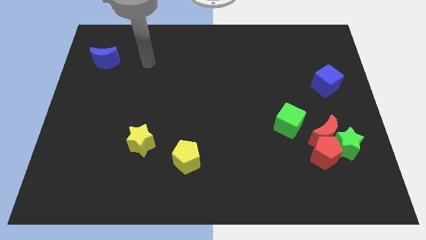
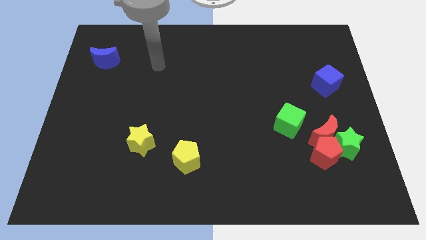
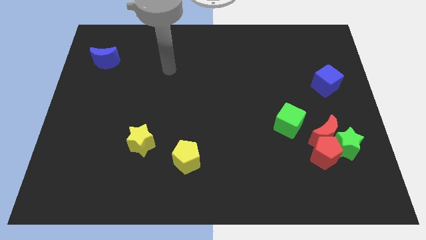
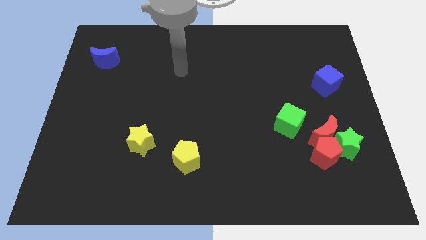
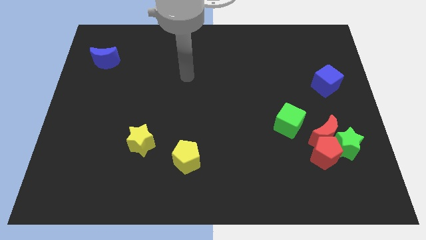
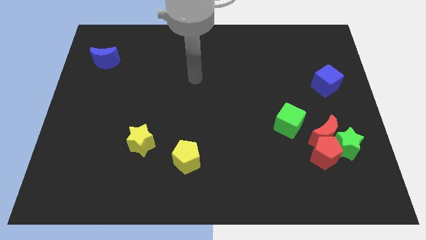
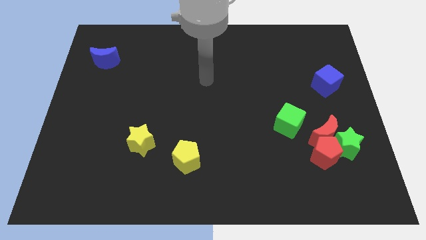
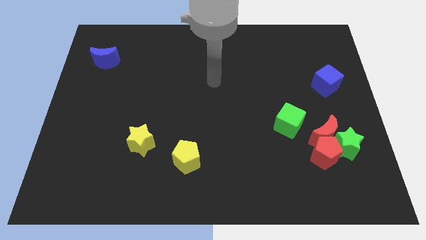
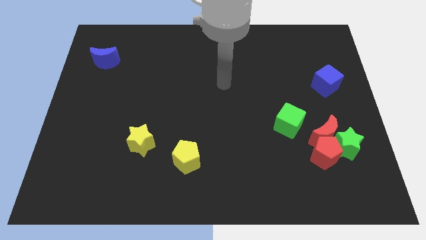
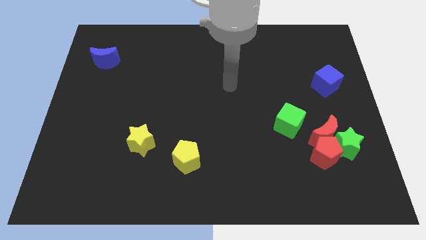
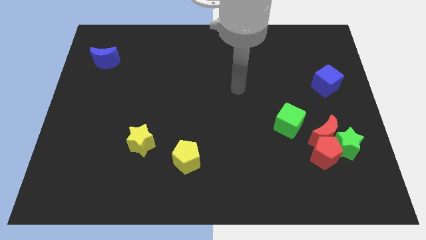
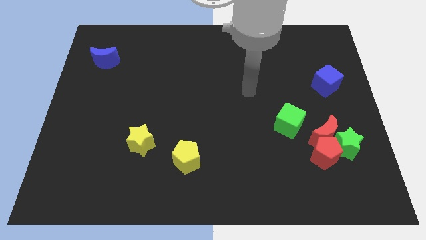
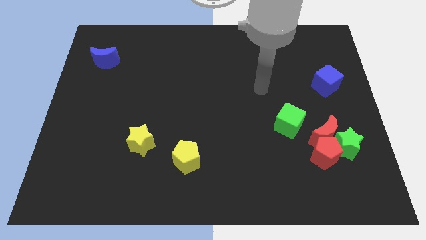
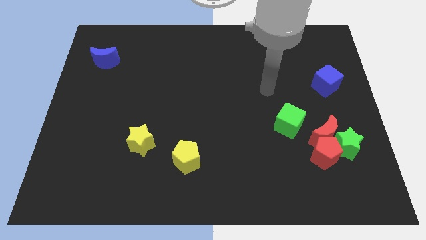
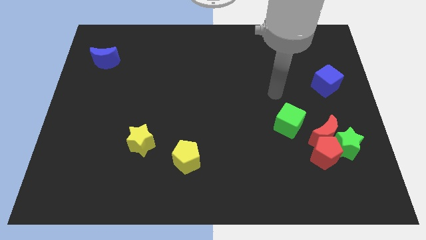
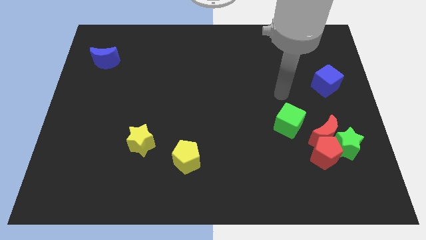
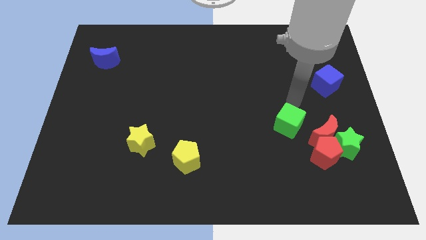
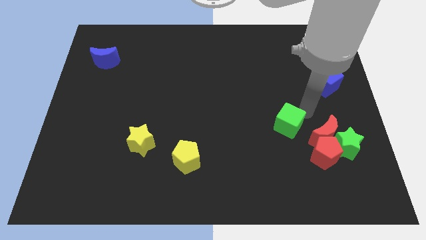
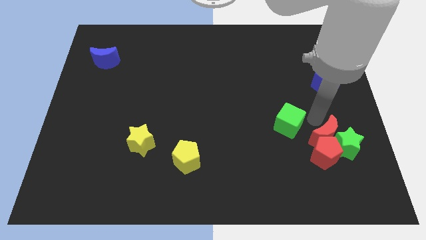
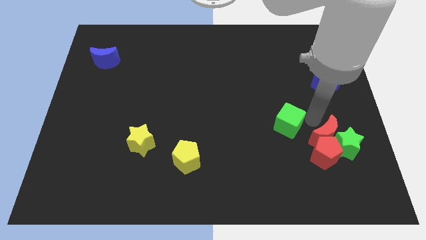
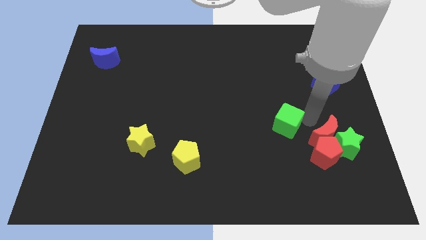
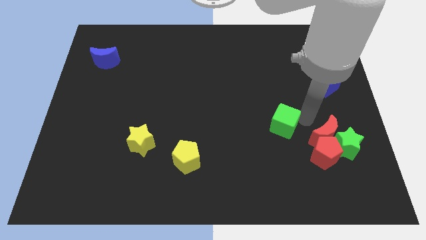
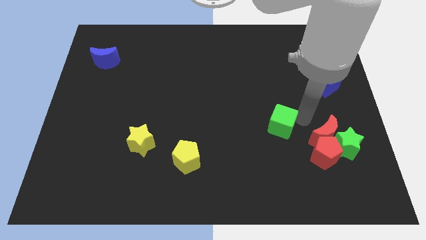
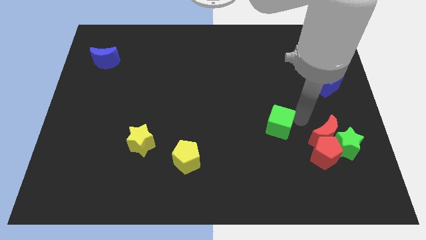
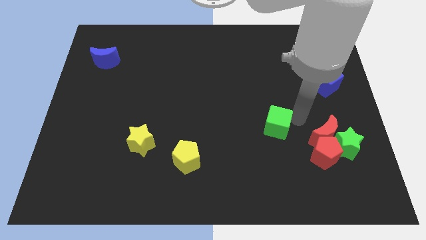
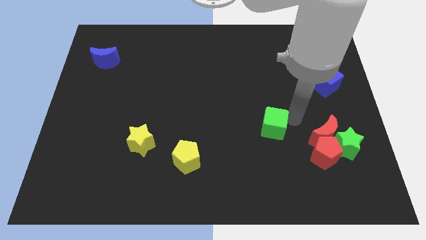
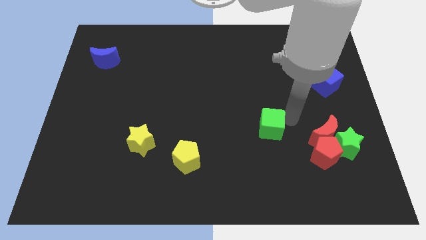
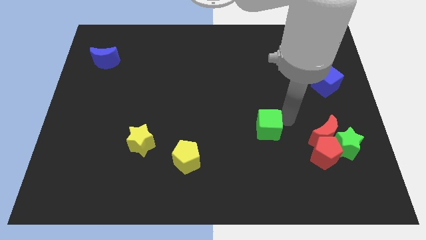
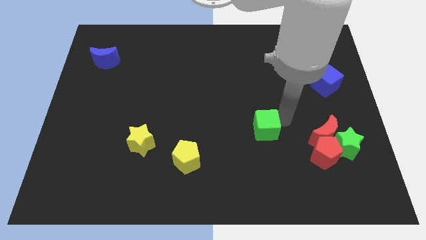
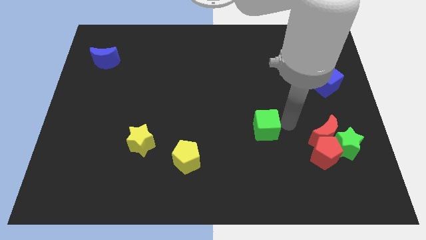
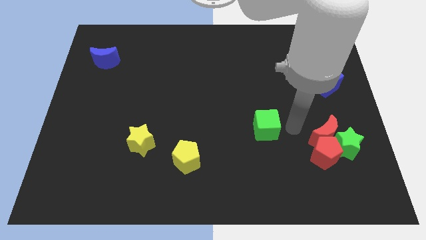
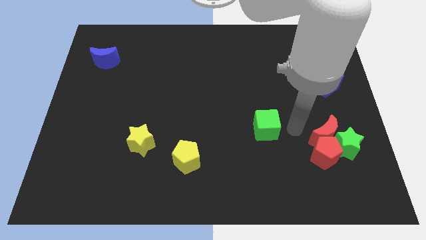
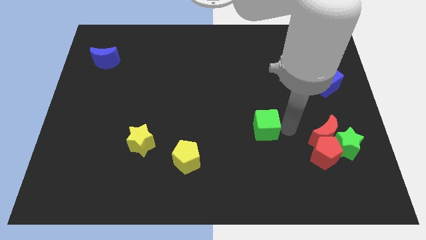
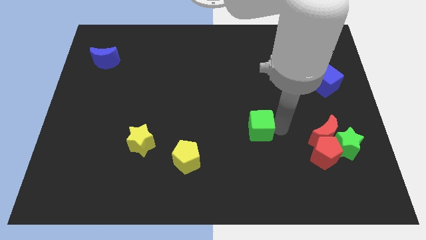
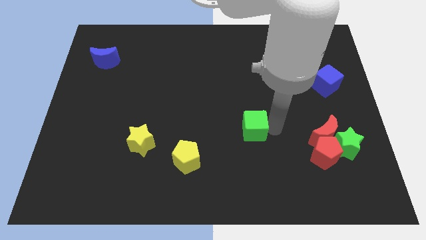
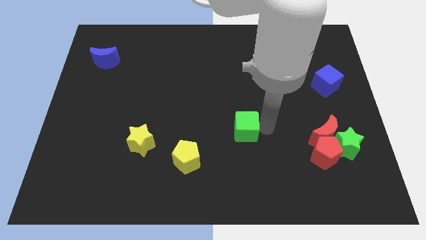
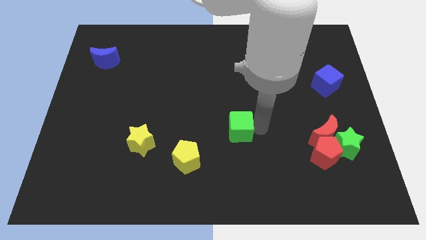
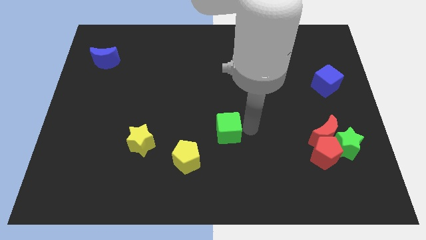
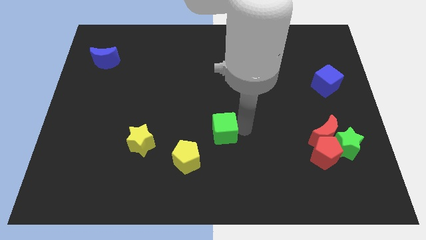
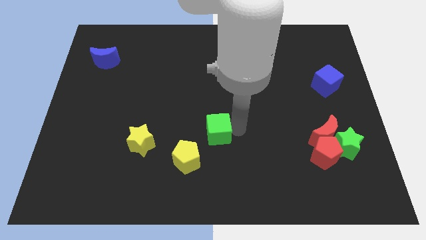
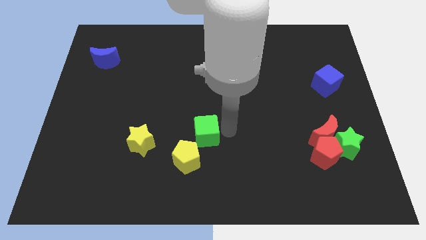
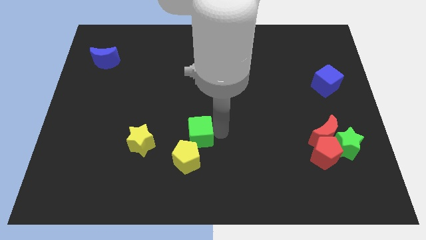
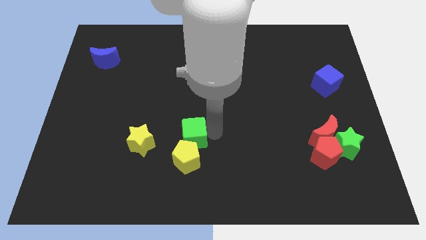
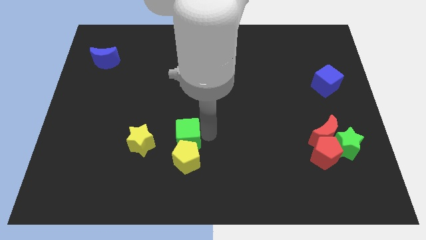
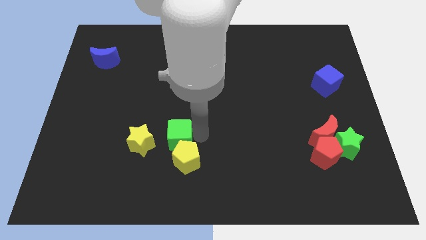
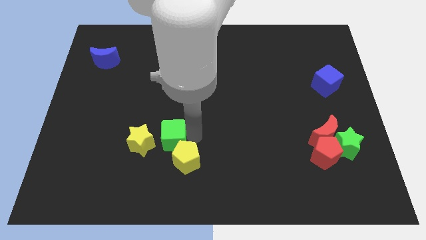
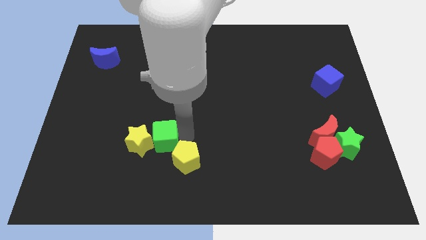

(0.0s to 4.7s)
slide the green cube close to the yellow star

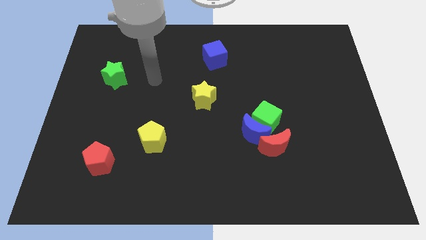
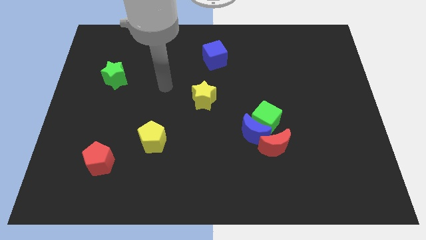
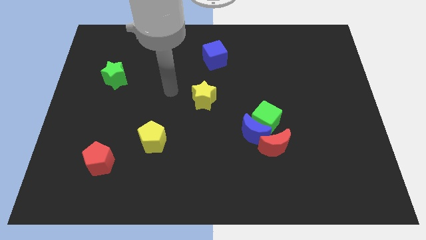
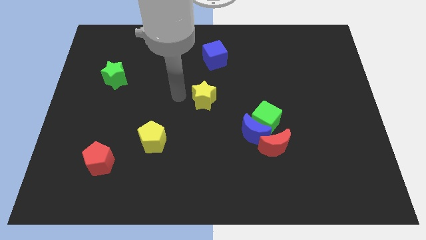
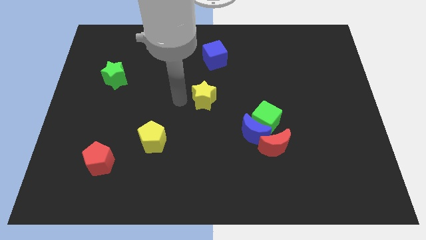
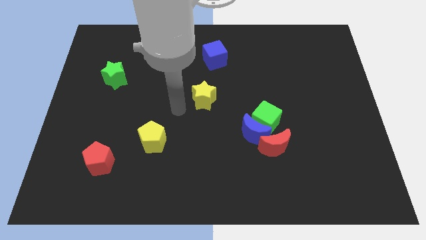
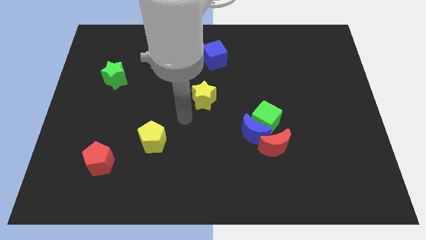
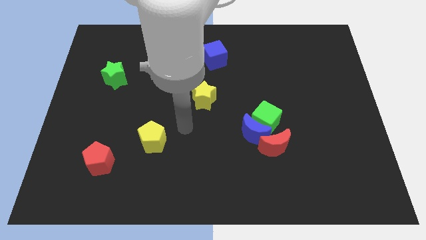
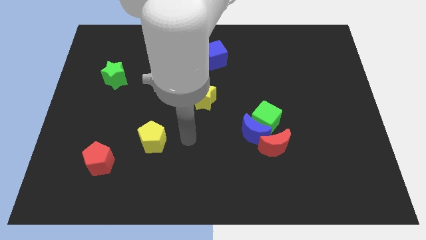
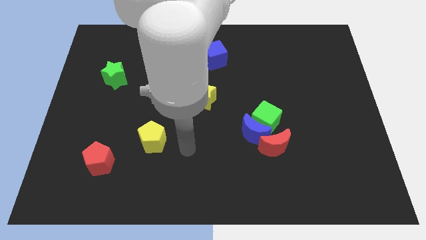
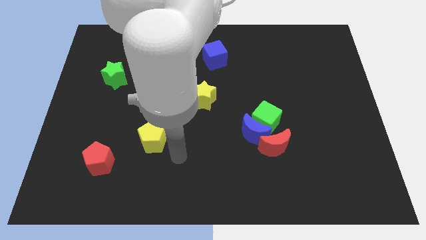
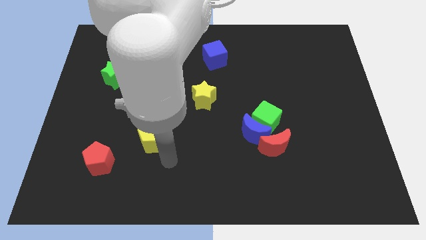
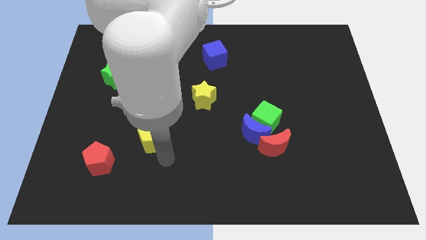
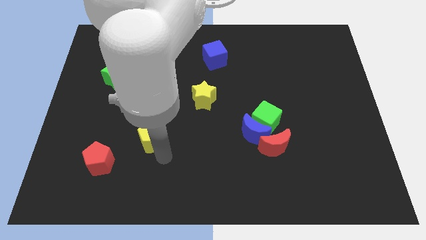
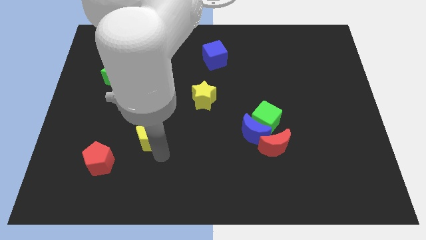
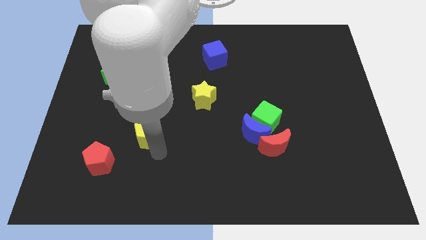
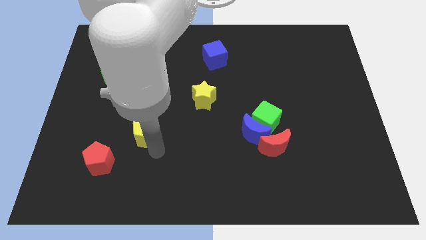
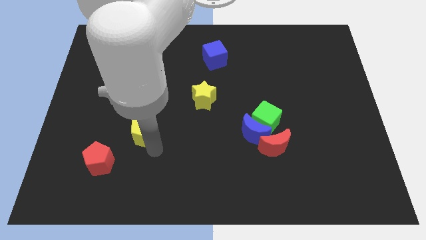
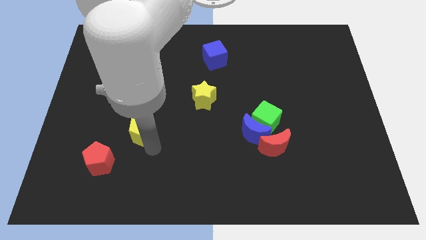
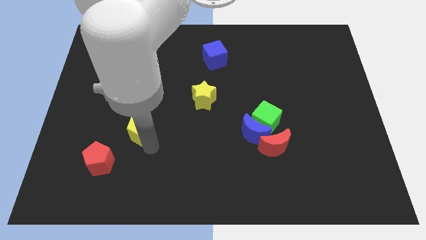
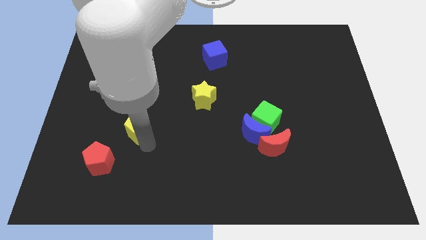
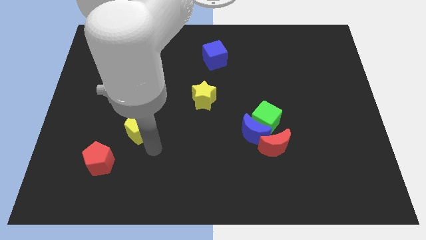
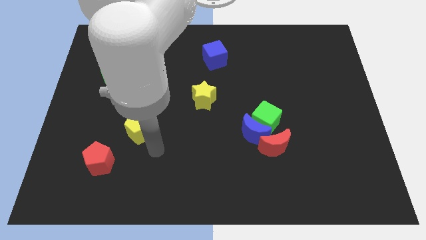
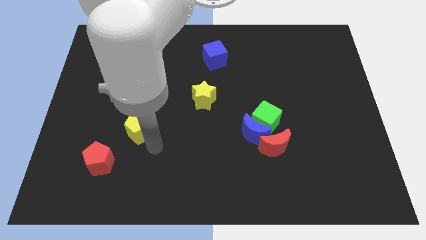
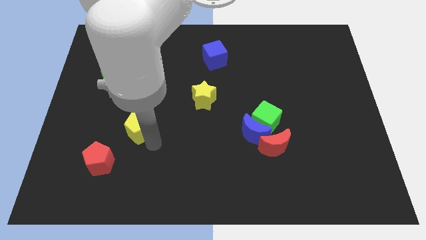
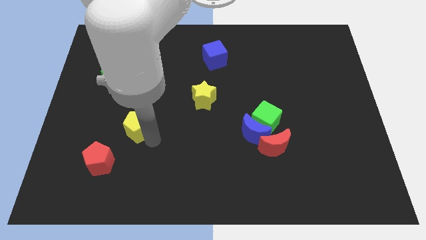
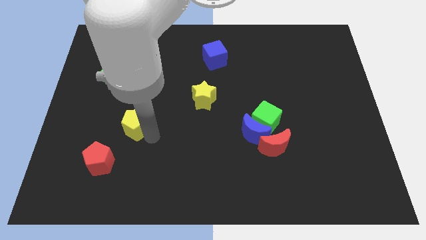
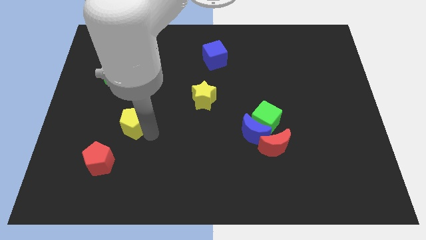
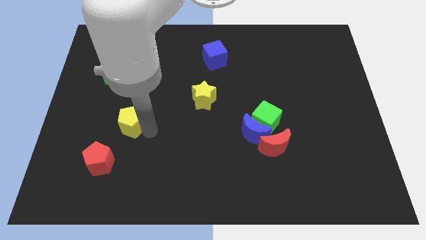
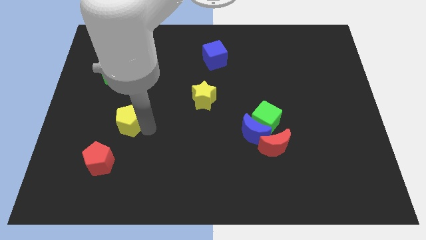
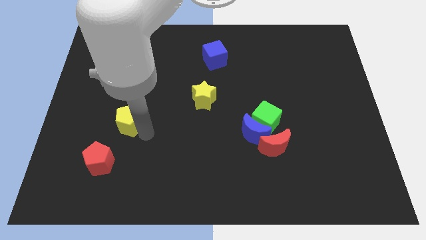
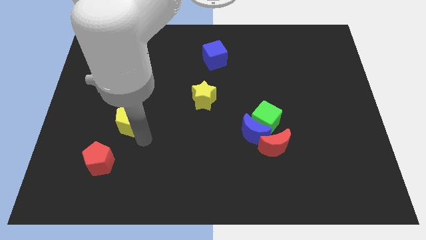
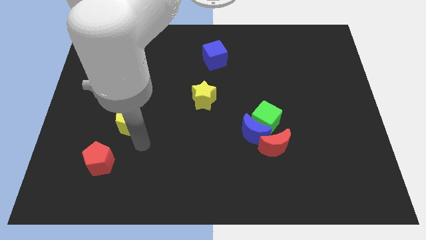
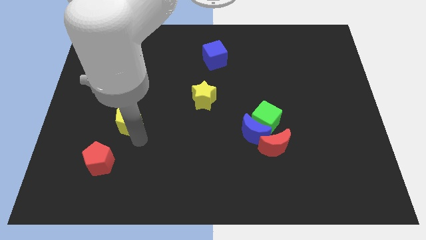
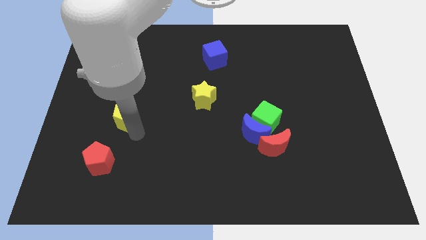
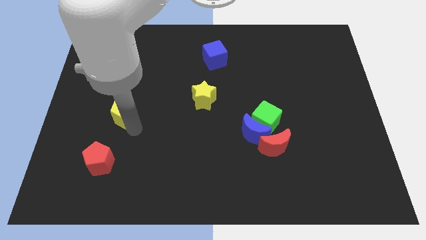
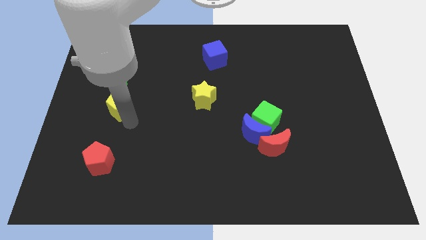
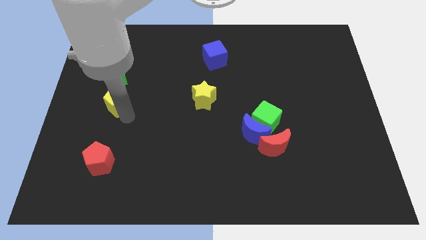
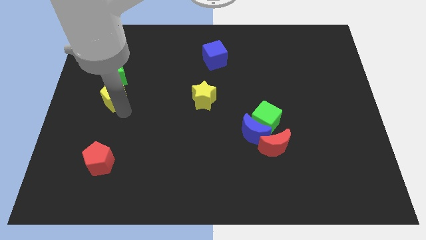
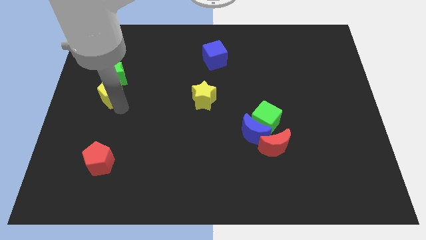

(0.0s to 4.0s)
push the yellow pentagon towards the green star
